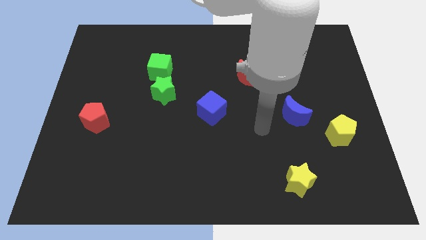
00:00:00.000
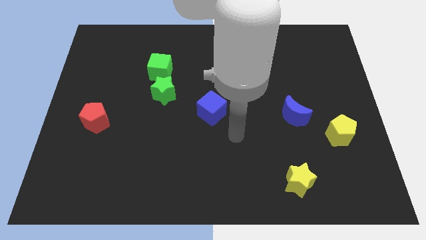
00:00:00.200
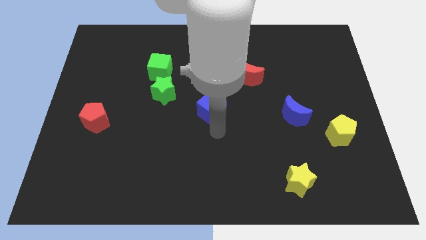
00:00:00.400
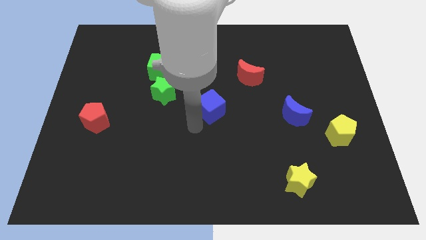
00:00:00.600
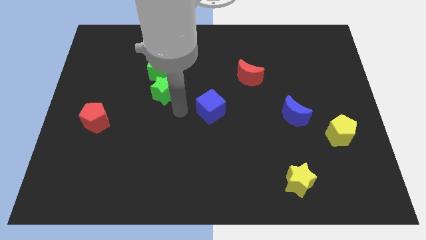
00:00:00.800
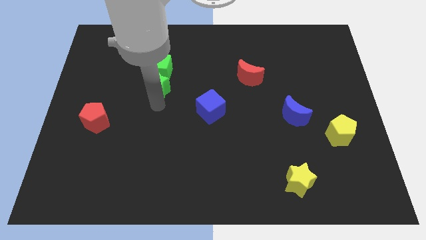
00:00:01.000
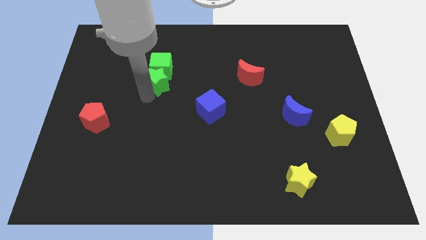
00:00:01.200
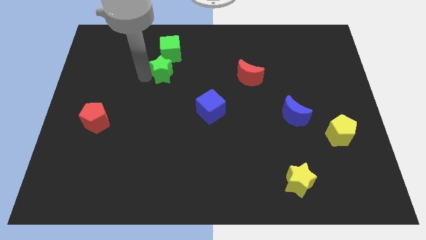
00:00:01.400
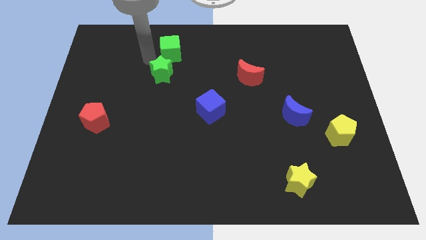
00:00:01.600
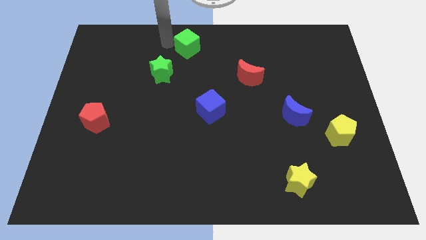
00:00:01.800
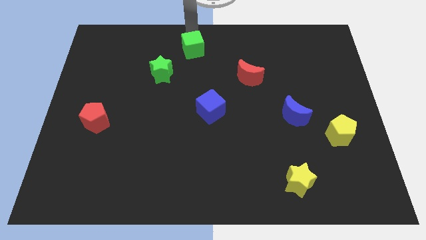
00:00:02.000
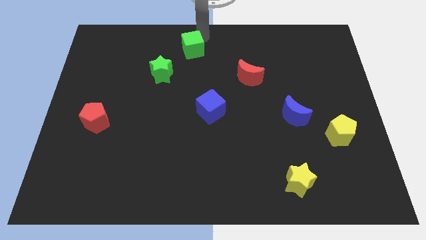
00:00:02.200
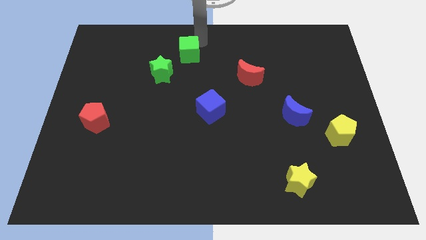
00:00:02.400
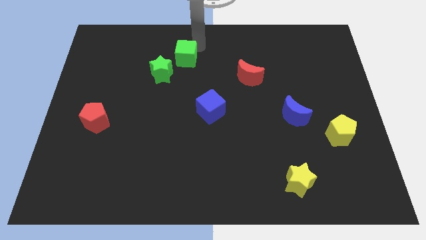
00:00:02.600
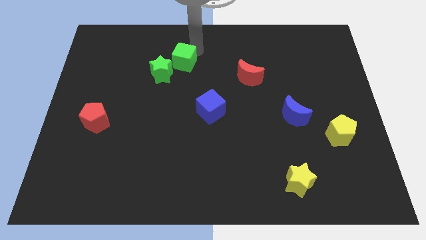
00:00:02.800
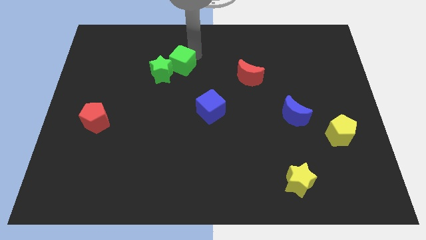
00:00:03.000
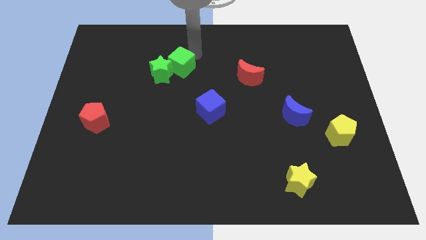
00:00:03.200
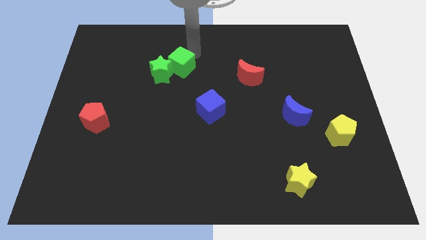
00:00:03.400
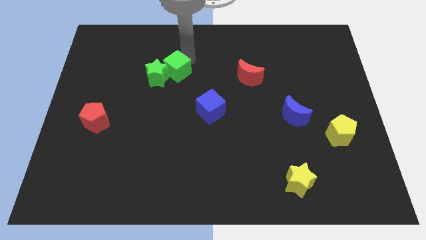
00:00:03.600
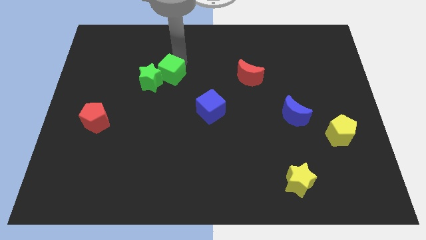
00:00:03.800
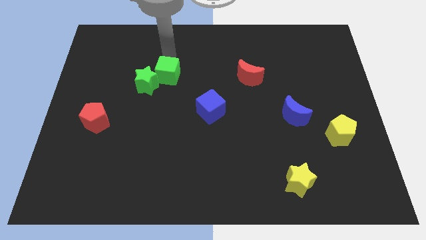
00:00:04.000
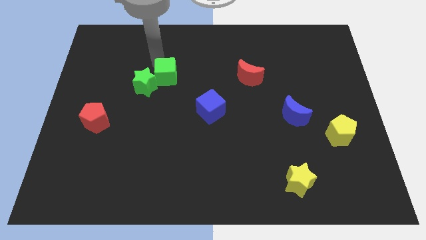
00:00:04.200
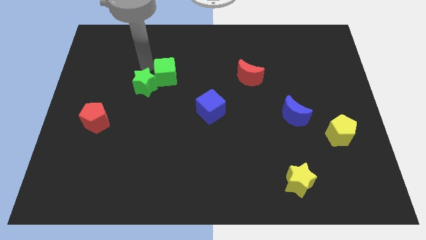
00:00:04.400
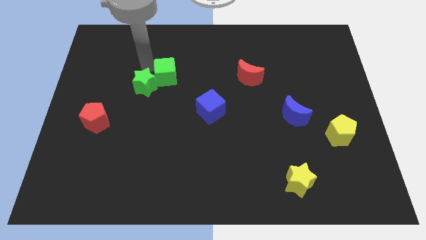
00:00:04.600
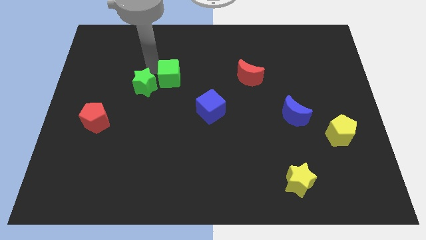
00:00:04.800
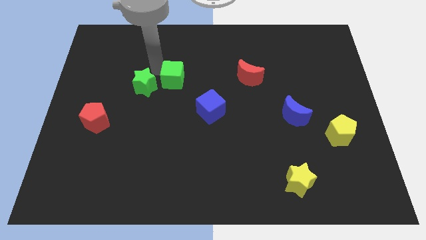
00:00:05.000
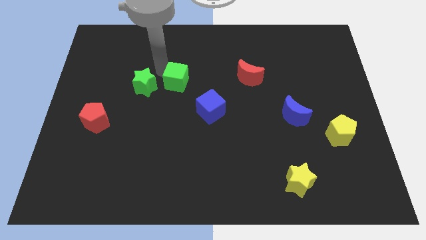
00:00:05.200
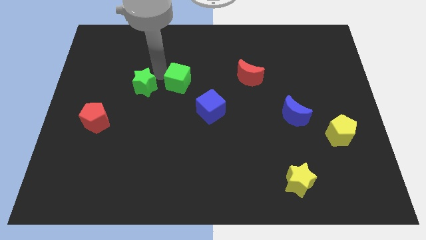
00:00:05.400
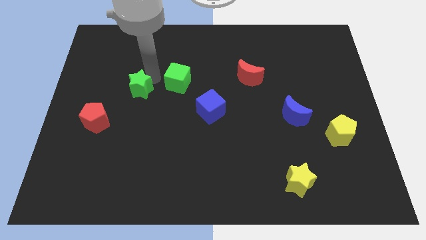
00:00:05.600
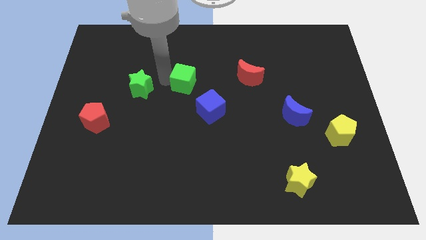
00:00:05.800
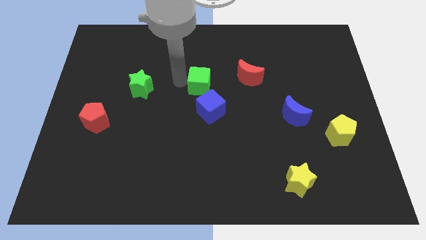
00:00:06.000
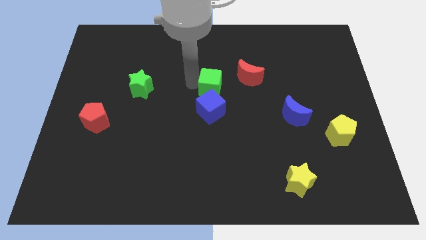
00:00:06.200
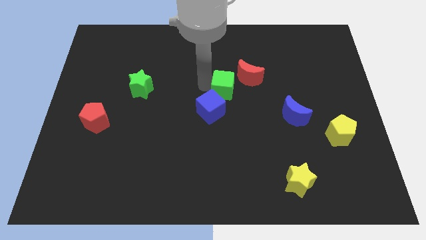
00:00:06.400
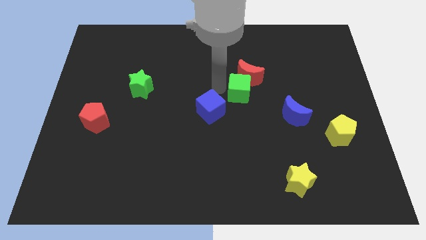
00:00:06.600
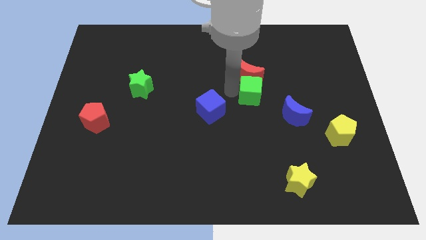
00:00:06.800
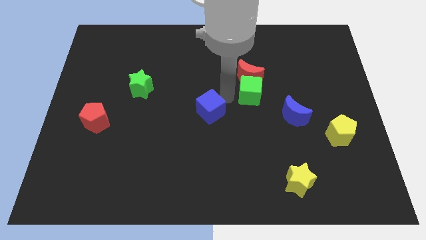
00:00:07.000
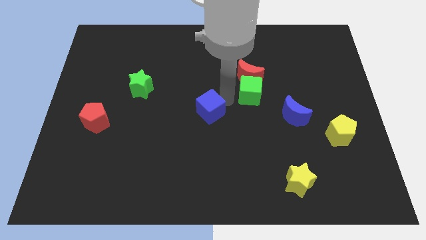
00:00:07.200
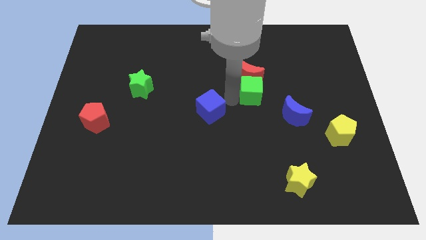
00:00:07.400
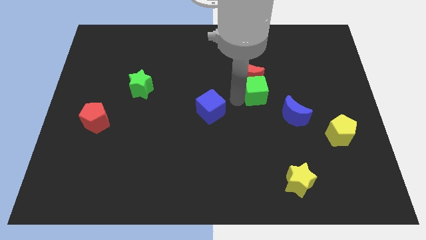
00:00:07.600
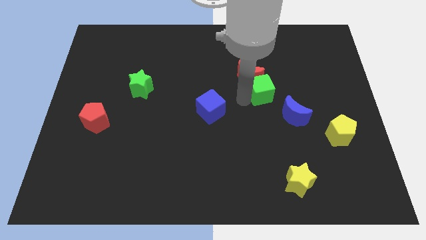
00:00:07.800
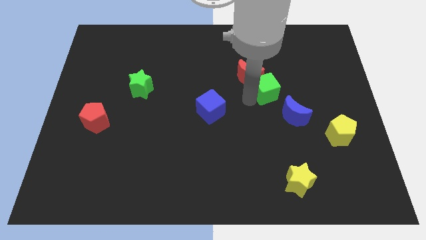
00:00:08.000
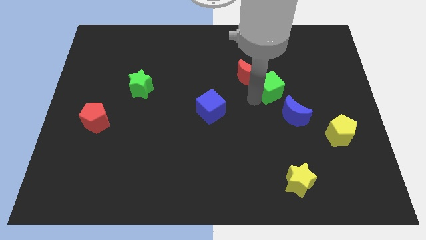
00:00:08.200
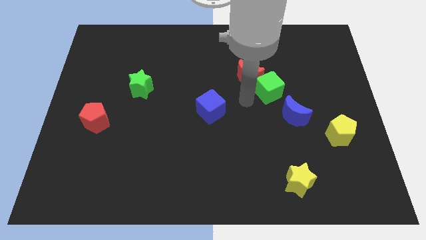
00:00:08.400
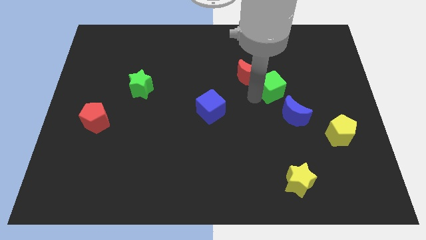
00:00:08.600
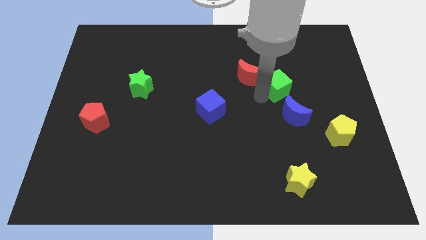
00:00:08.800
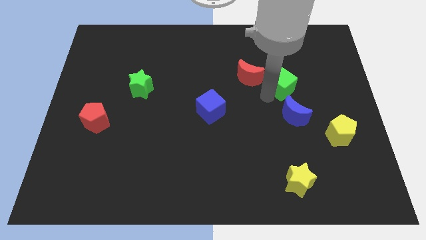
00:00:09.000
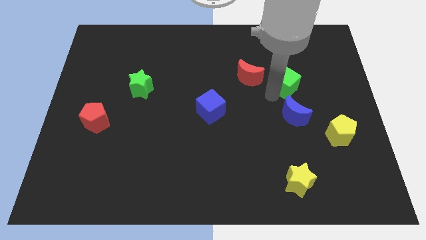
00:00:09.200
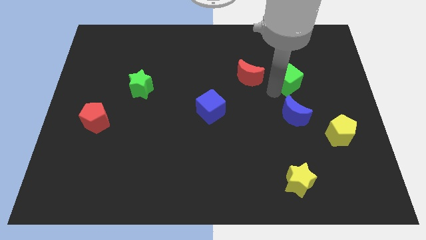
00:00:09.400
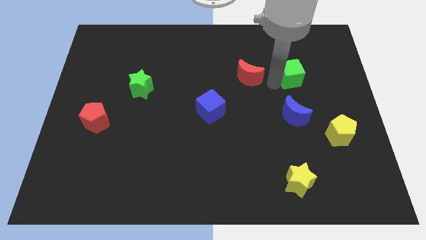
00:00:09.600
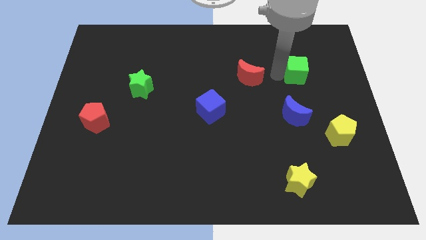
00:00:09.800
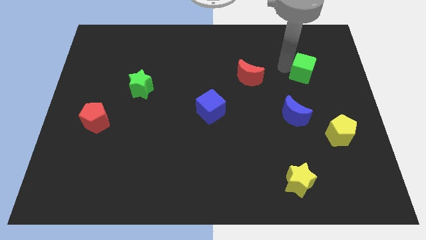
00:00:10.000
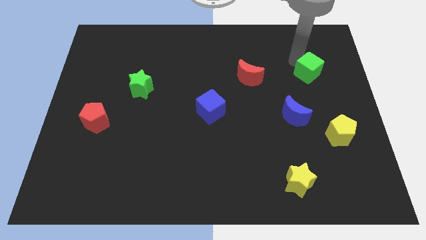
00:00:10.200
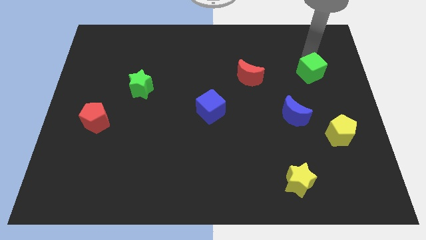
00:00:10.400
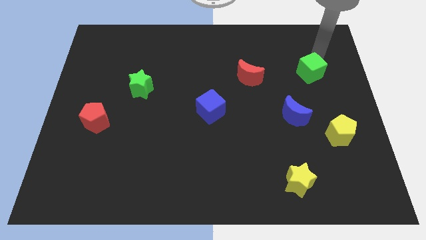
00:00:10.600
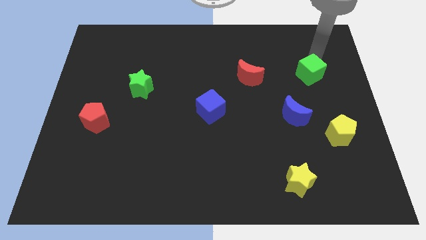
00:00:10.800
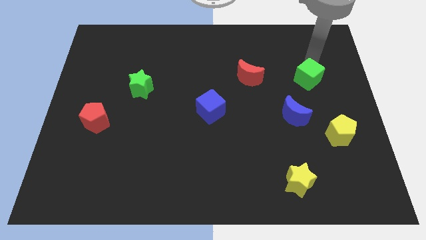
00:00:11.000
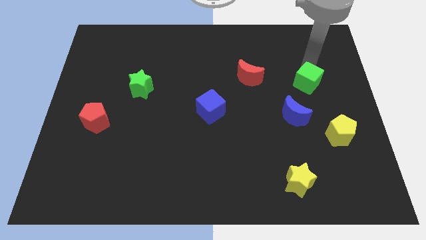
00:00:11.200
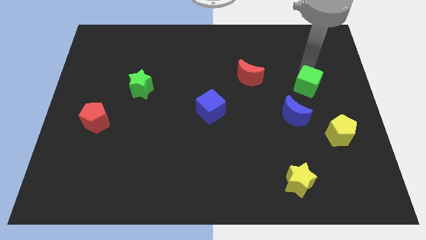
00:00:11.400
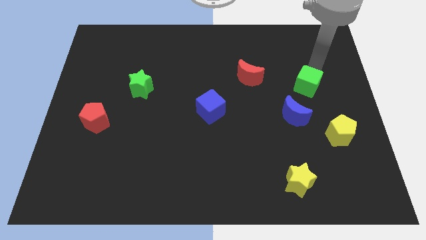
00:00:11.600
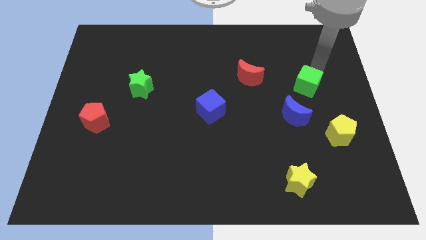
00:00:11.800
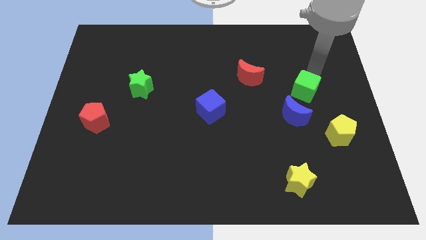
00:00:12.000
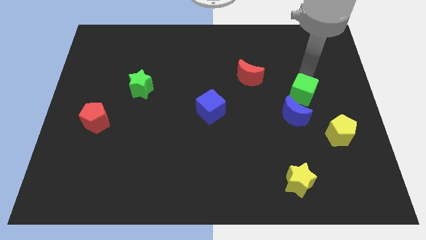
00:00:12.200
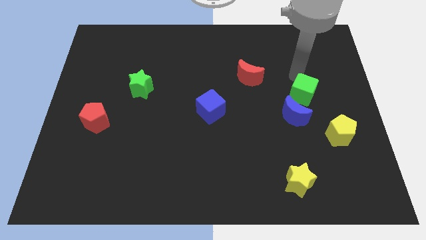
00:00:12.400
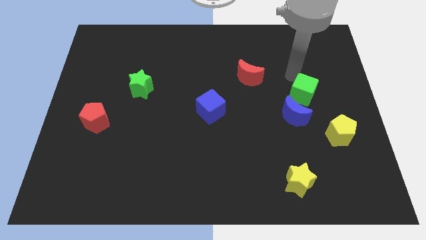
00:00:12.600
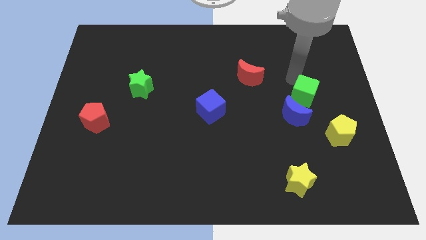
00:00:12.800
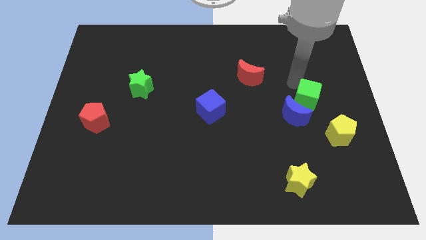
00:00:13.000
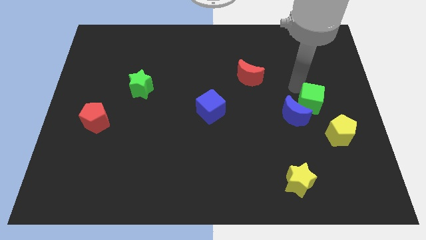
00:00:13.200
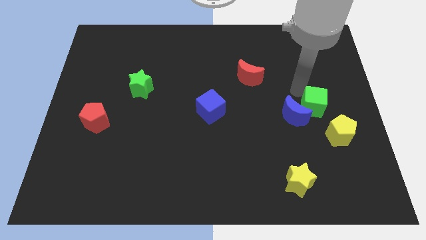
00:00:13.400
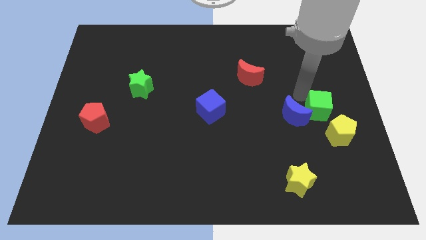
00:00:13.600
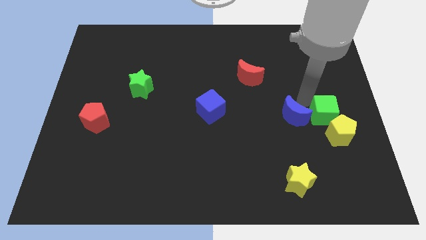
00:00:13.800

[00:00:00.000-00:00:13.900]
put the green cube close to the yellow pentagon
